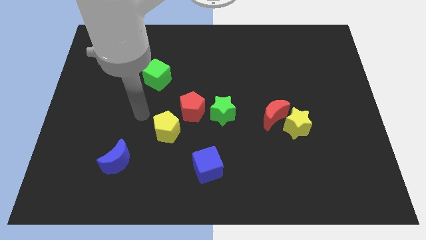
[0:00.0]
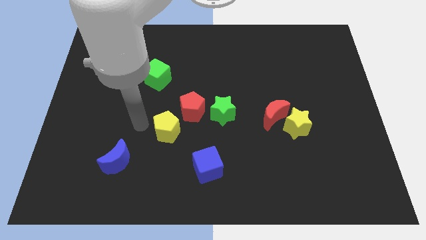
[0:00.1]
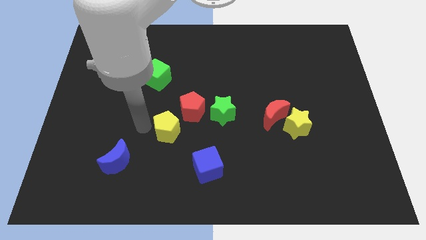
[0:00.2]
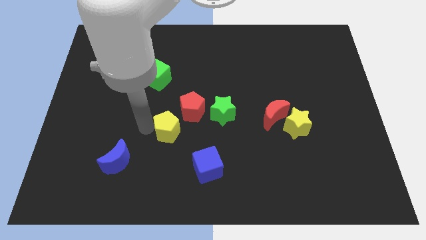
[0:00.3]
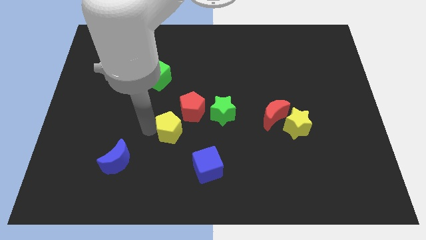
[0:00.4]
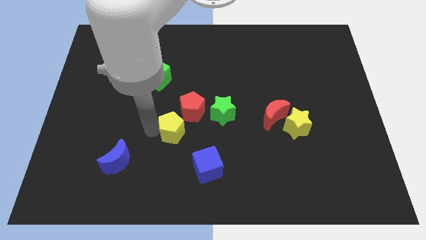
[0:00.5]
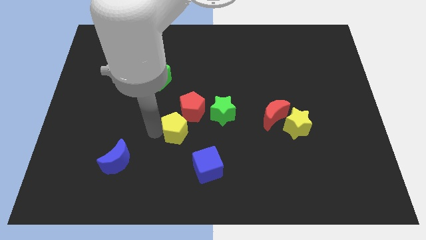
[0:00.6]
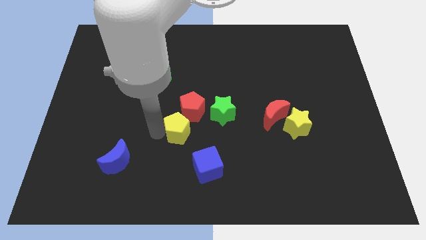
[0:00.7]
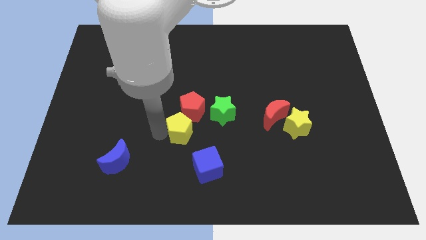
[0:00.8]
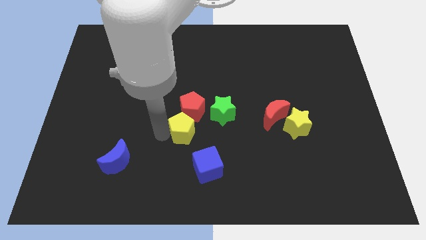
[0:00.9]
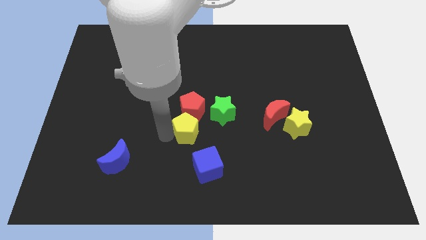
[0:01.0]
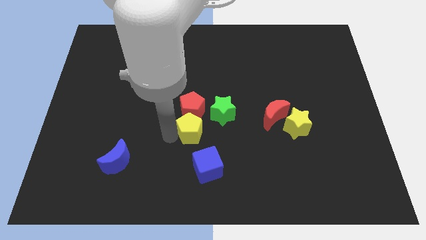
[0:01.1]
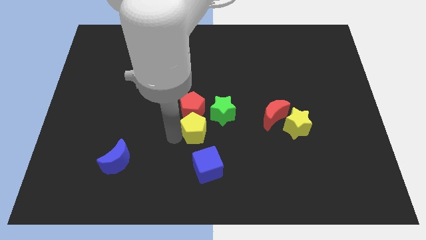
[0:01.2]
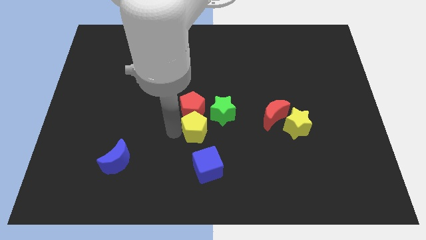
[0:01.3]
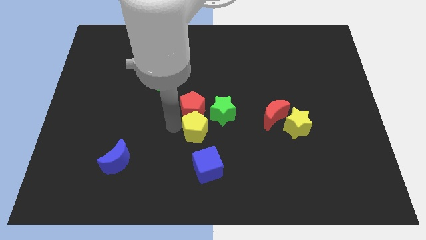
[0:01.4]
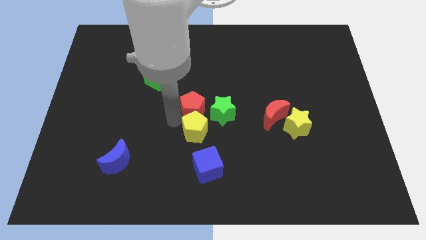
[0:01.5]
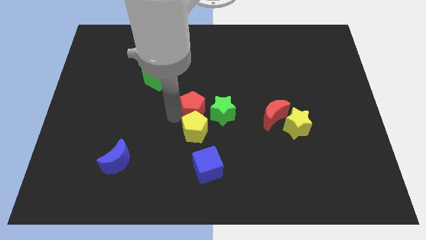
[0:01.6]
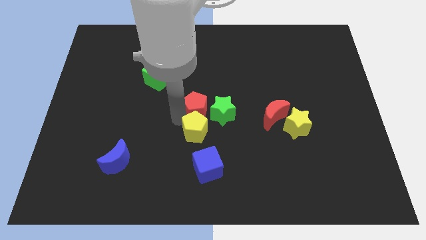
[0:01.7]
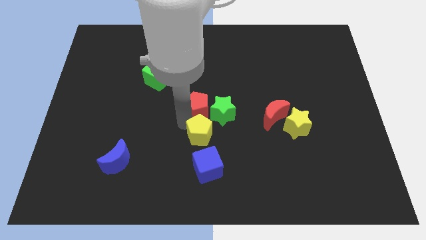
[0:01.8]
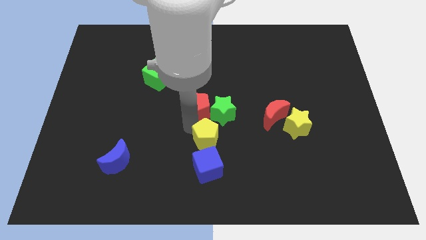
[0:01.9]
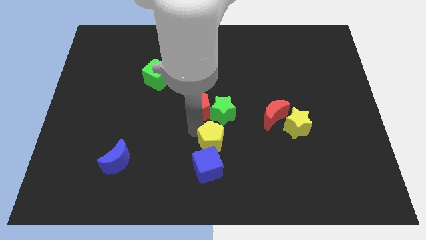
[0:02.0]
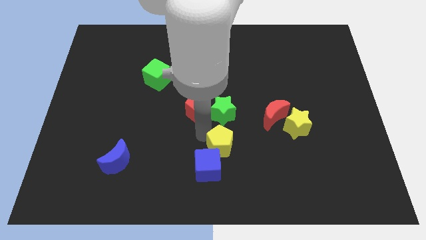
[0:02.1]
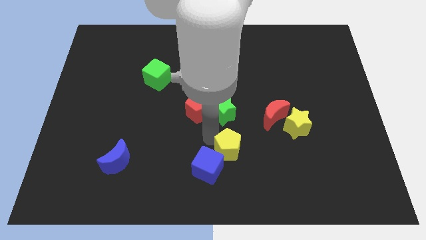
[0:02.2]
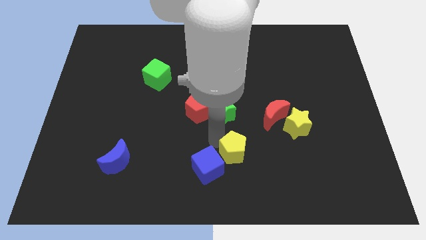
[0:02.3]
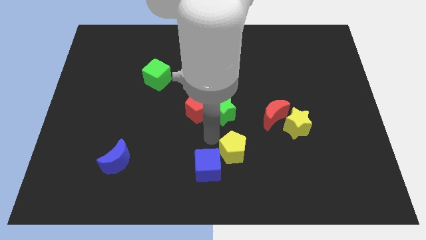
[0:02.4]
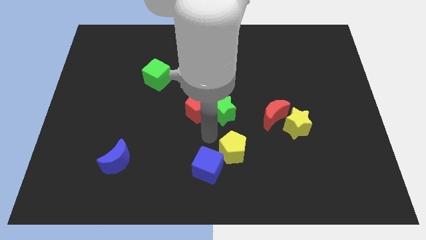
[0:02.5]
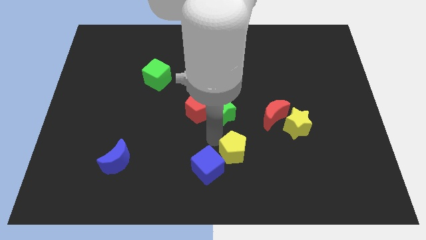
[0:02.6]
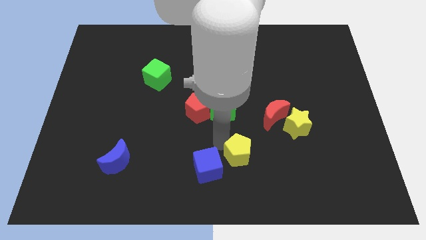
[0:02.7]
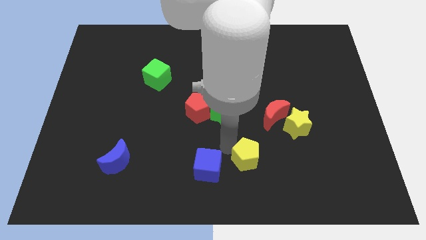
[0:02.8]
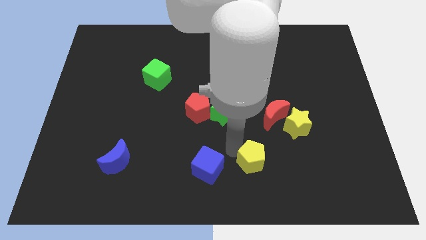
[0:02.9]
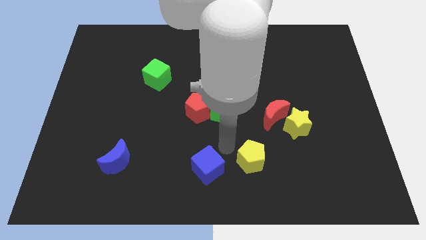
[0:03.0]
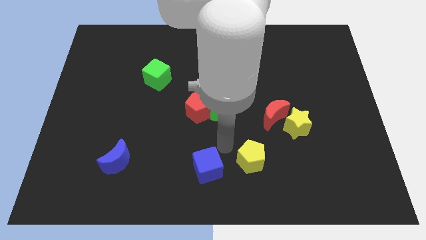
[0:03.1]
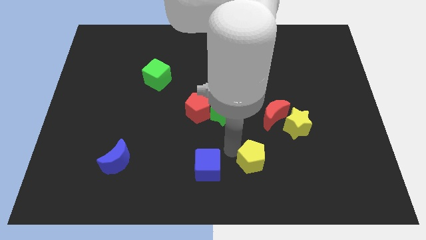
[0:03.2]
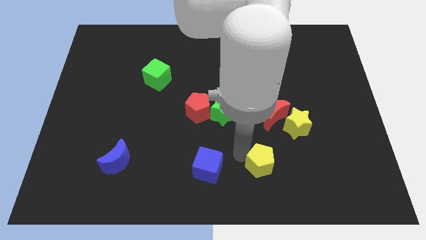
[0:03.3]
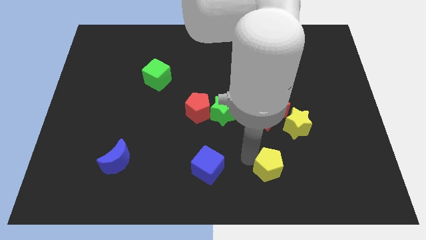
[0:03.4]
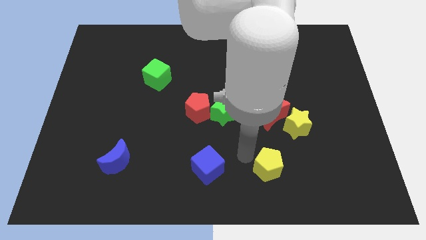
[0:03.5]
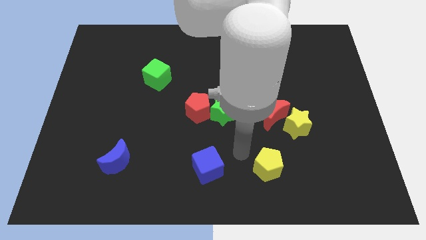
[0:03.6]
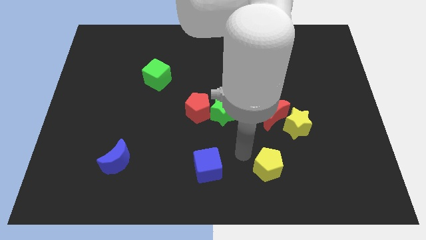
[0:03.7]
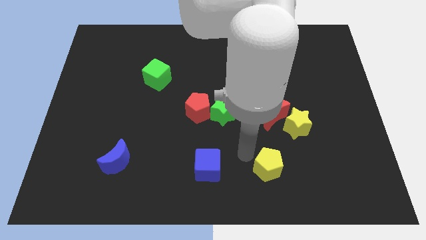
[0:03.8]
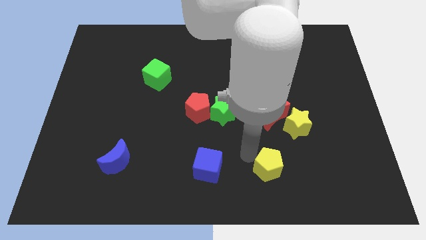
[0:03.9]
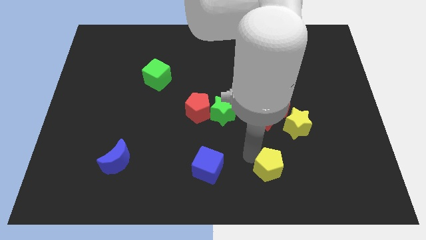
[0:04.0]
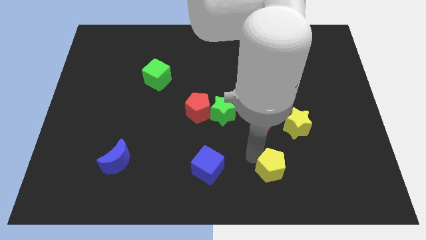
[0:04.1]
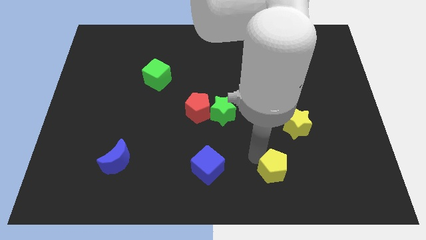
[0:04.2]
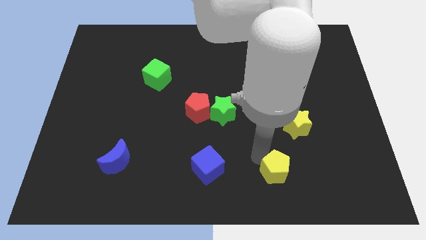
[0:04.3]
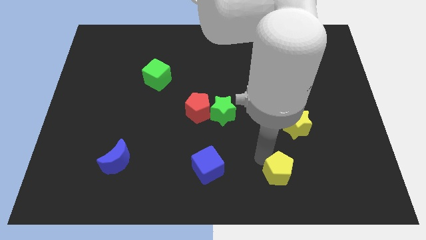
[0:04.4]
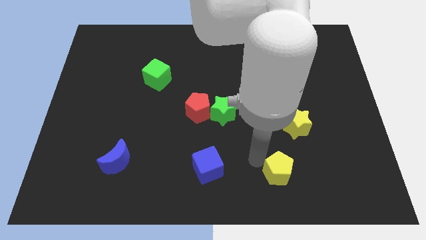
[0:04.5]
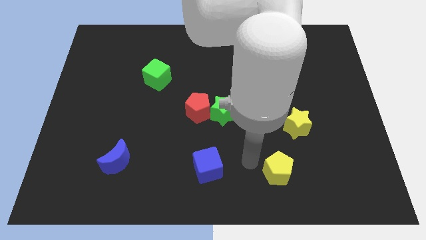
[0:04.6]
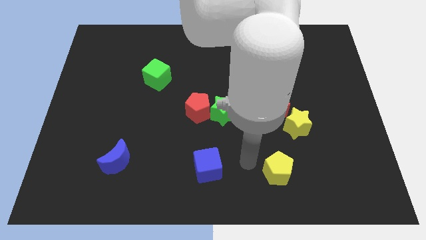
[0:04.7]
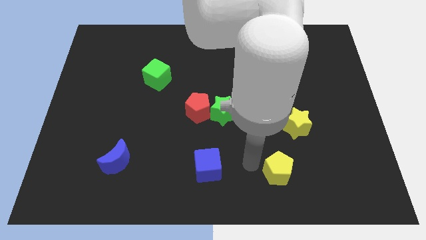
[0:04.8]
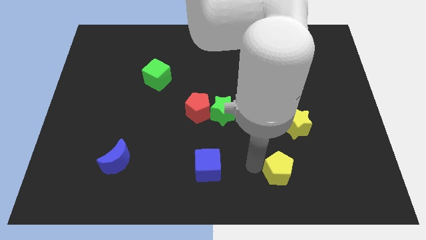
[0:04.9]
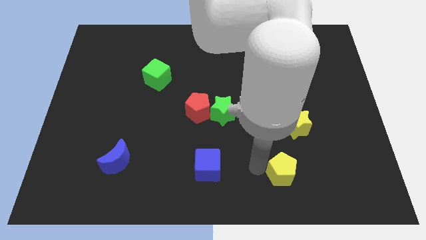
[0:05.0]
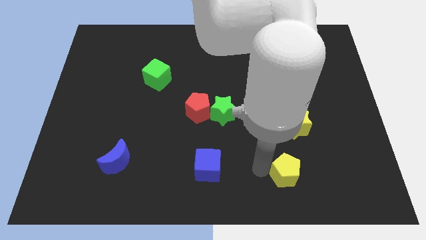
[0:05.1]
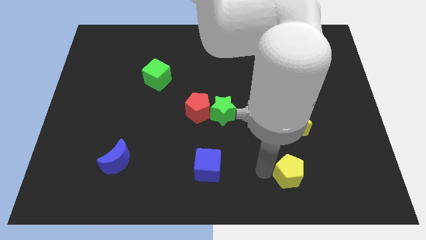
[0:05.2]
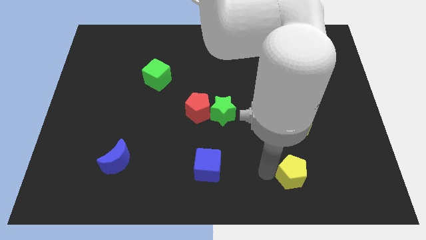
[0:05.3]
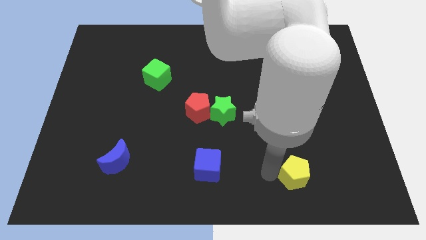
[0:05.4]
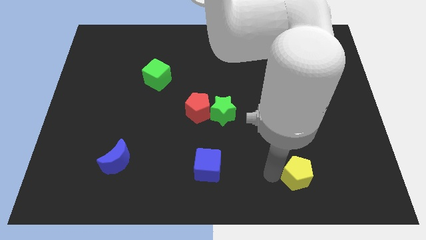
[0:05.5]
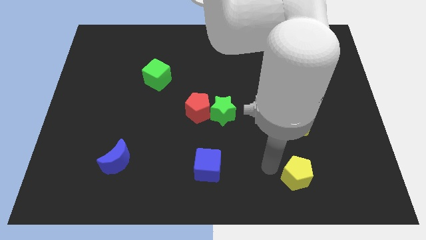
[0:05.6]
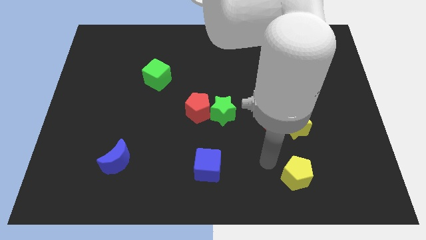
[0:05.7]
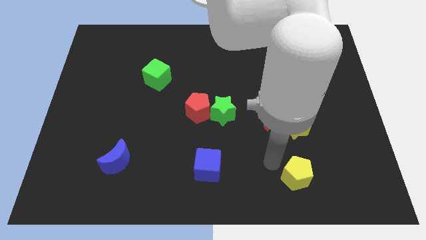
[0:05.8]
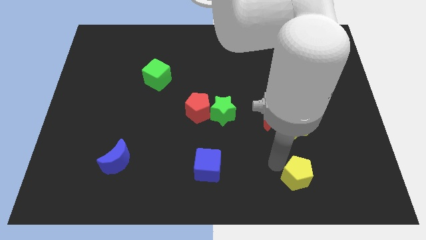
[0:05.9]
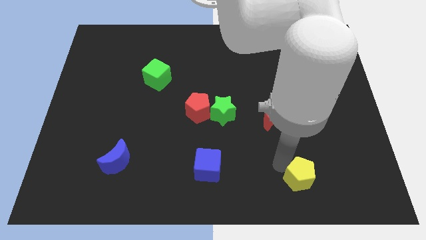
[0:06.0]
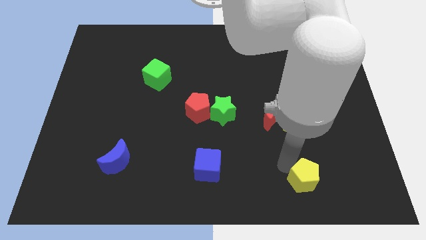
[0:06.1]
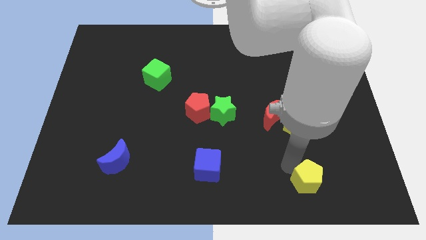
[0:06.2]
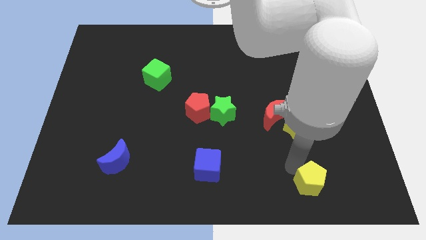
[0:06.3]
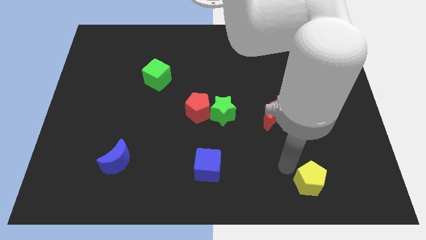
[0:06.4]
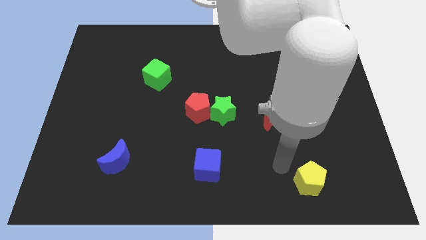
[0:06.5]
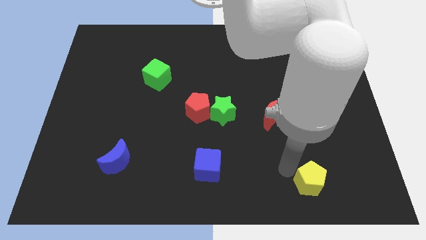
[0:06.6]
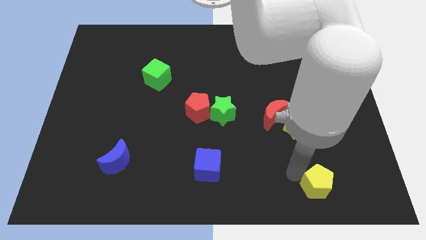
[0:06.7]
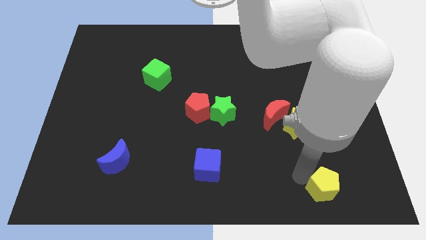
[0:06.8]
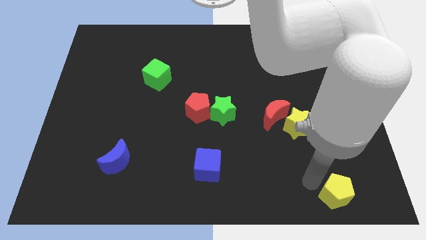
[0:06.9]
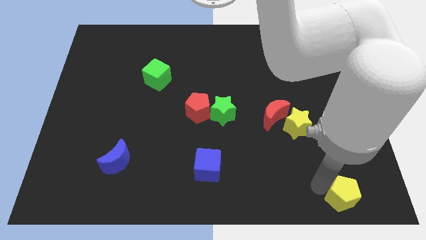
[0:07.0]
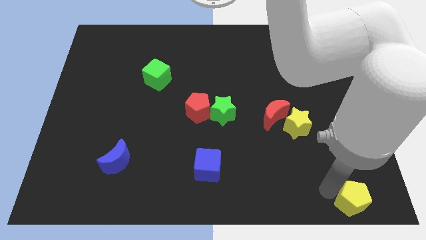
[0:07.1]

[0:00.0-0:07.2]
move the yellow pentagon to the lower right corner
